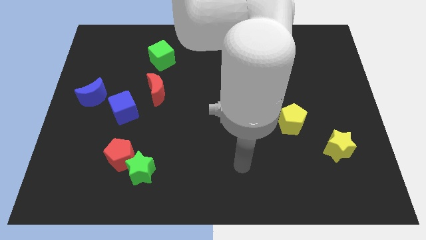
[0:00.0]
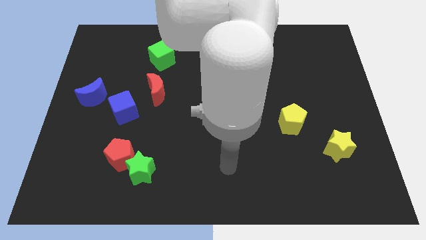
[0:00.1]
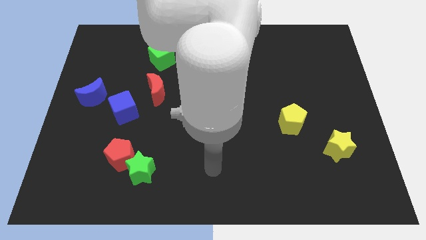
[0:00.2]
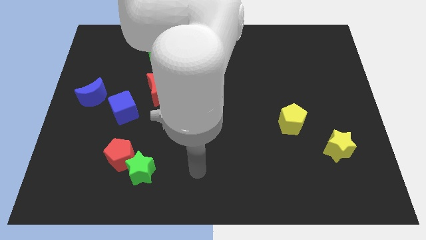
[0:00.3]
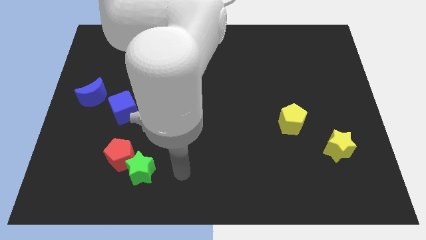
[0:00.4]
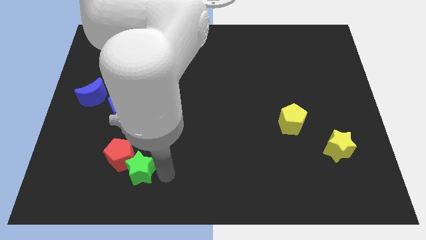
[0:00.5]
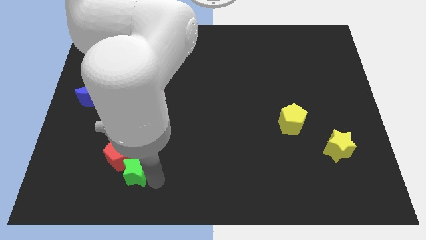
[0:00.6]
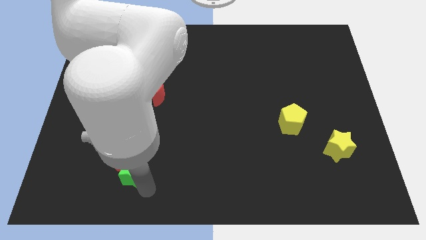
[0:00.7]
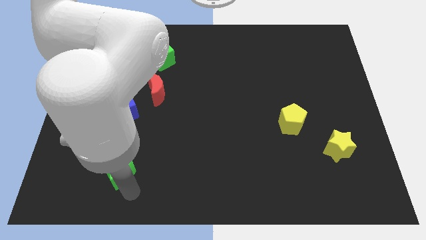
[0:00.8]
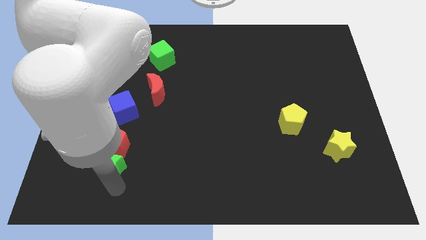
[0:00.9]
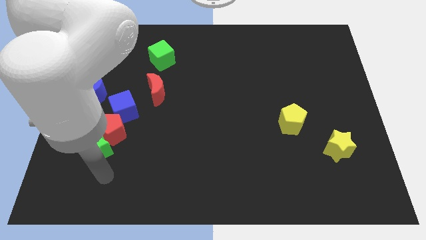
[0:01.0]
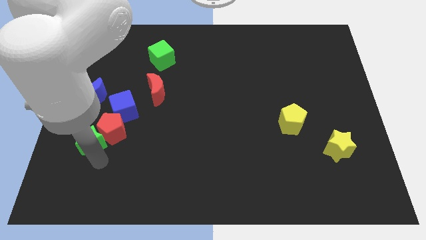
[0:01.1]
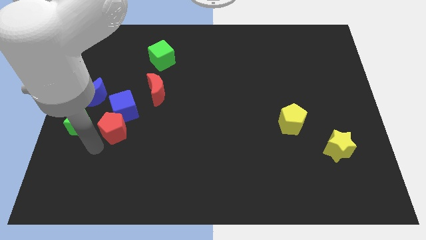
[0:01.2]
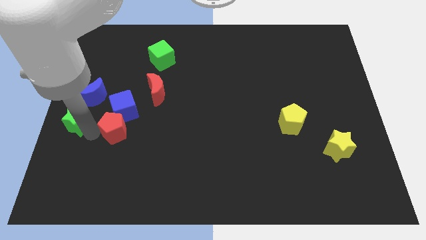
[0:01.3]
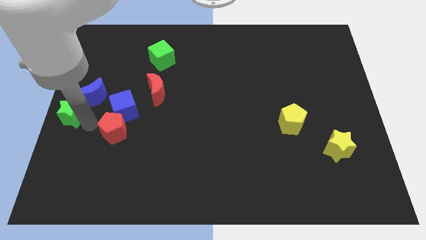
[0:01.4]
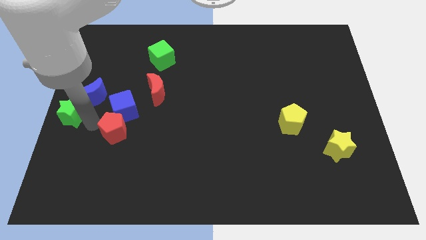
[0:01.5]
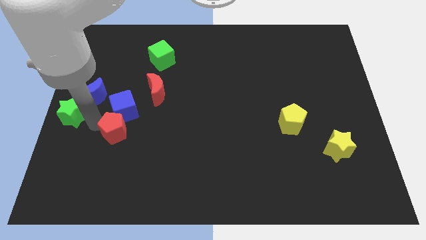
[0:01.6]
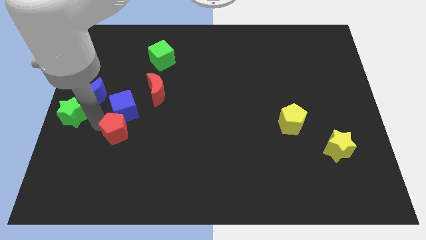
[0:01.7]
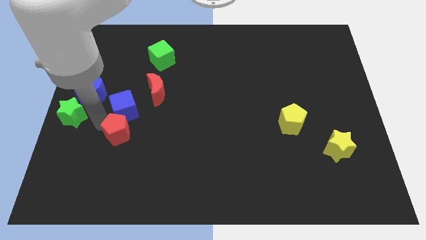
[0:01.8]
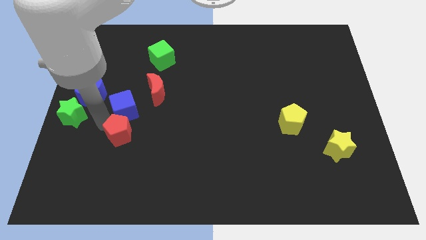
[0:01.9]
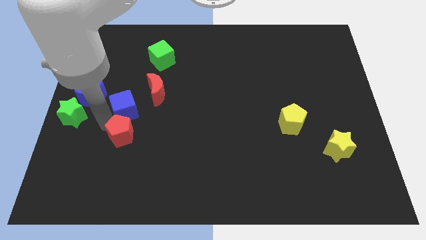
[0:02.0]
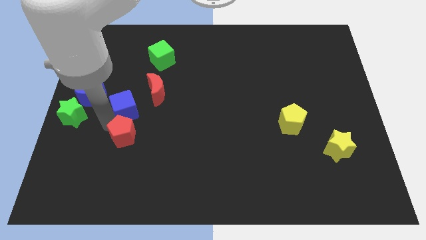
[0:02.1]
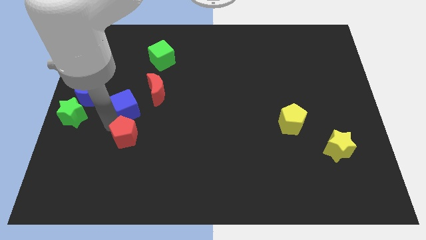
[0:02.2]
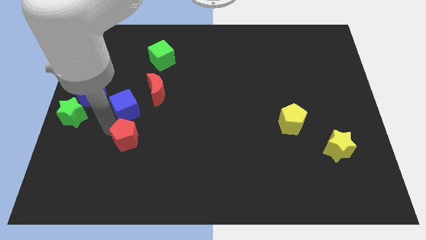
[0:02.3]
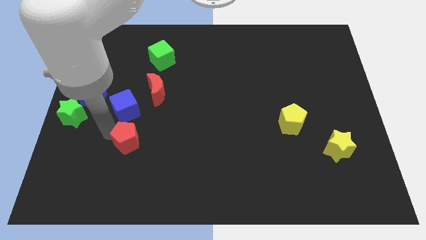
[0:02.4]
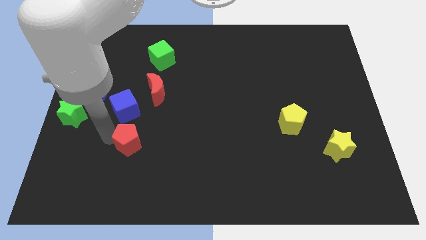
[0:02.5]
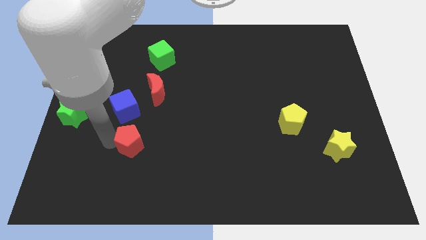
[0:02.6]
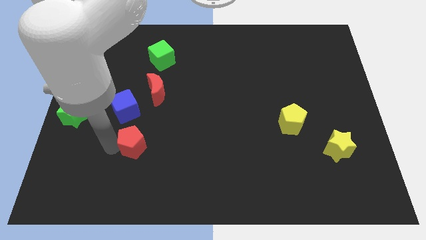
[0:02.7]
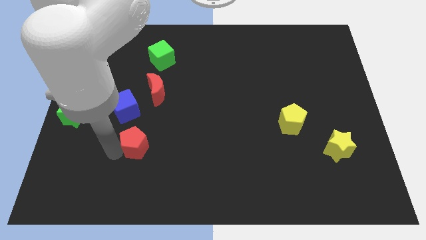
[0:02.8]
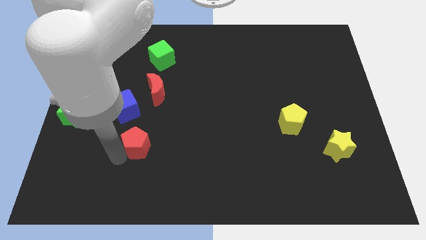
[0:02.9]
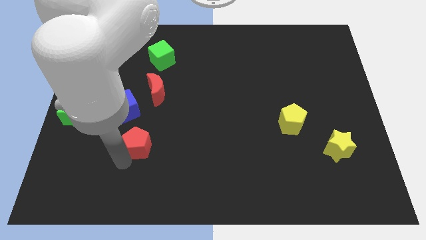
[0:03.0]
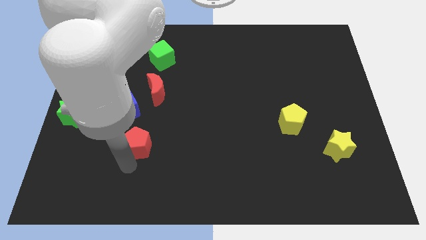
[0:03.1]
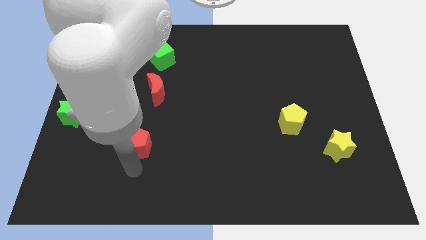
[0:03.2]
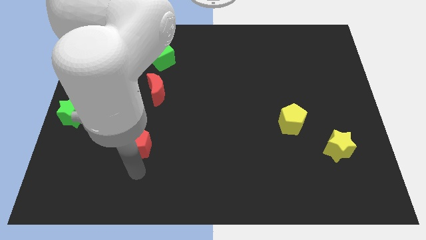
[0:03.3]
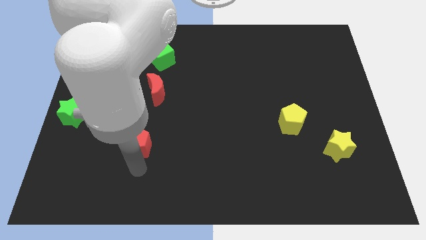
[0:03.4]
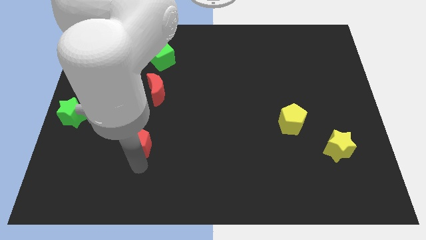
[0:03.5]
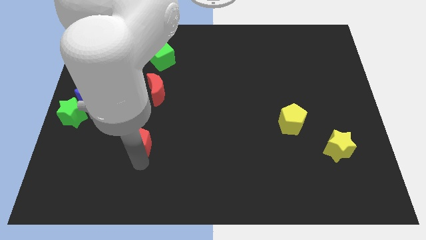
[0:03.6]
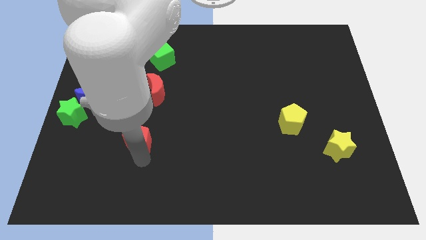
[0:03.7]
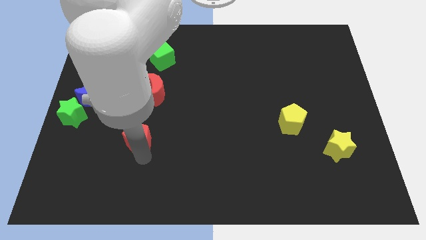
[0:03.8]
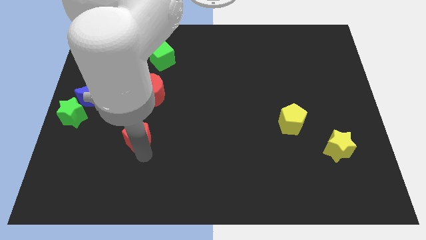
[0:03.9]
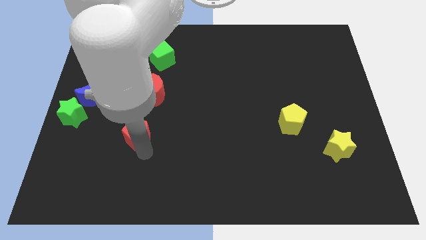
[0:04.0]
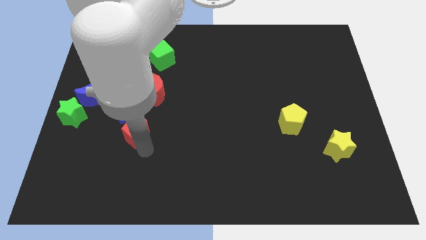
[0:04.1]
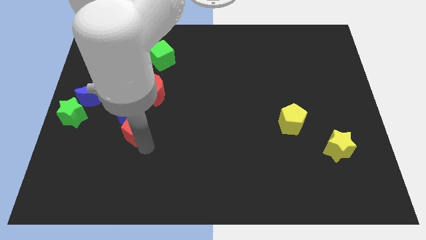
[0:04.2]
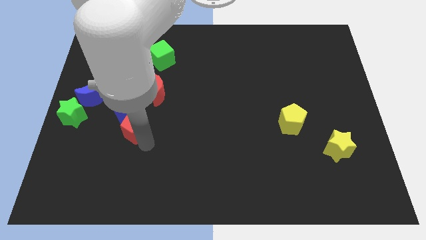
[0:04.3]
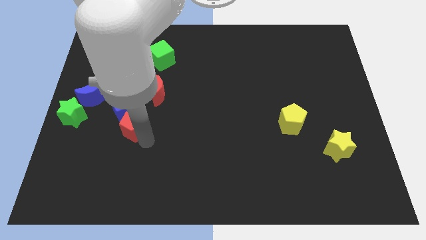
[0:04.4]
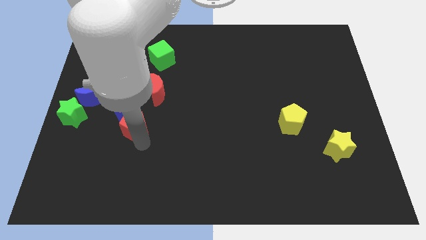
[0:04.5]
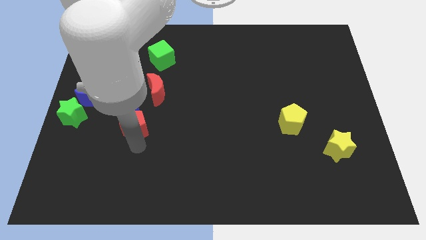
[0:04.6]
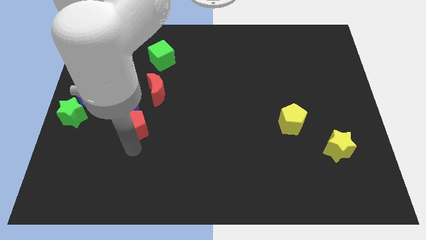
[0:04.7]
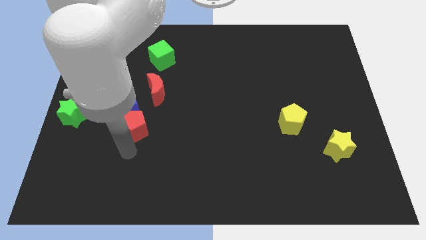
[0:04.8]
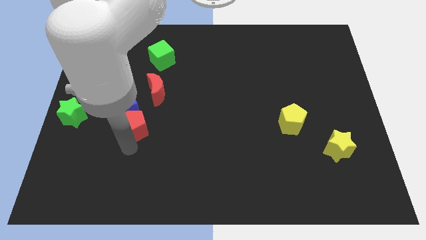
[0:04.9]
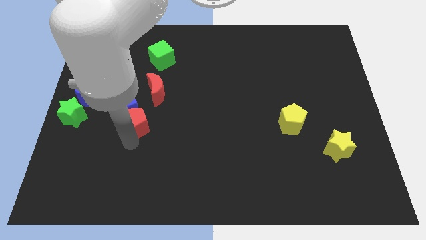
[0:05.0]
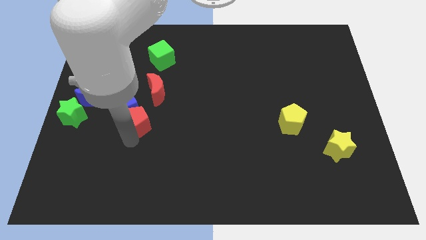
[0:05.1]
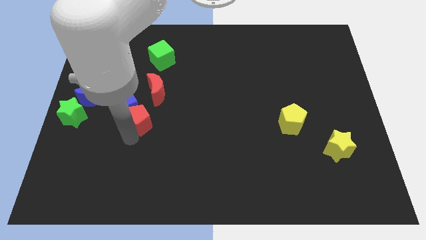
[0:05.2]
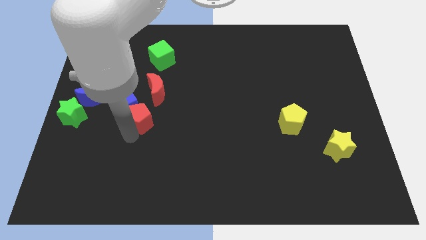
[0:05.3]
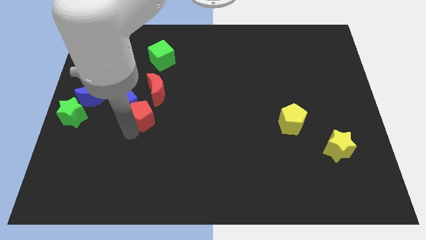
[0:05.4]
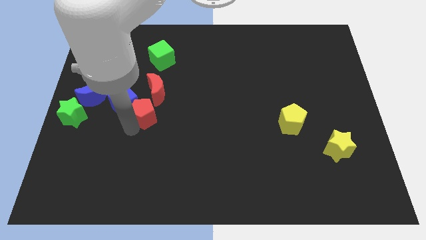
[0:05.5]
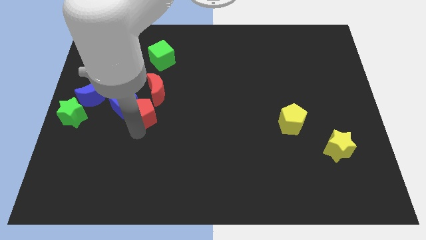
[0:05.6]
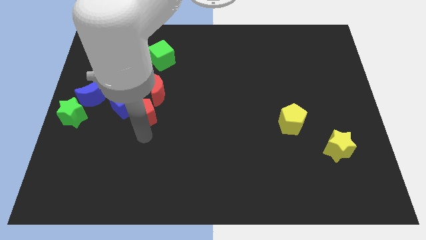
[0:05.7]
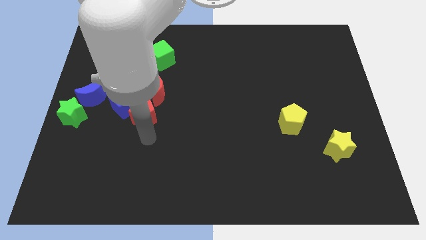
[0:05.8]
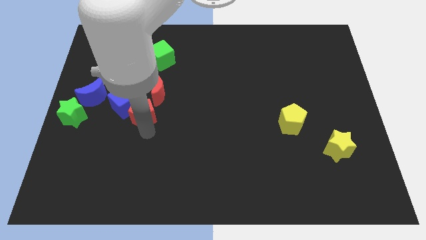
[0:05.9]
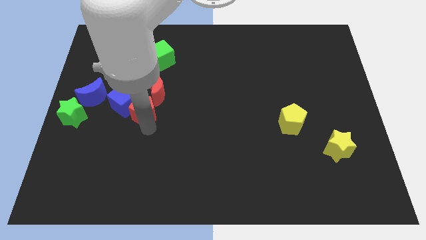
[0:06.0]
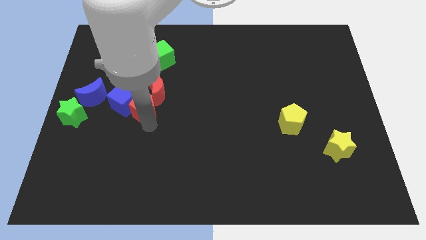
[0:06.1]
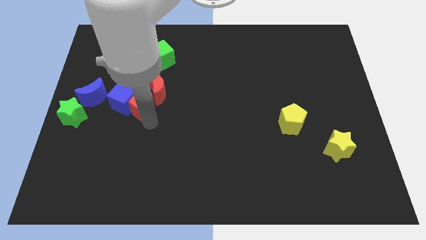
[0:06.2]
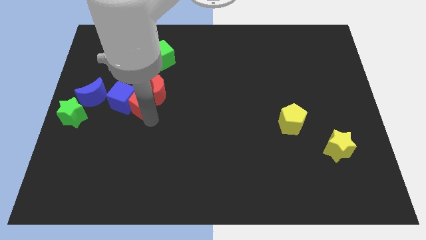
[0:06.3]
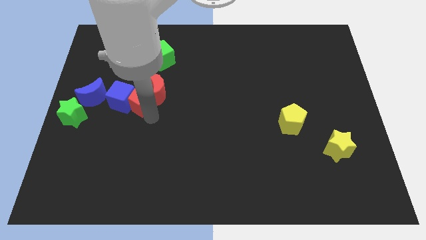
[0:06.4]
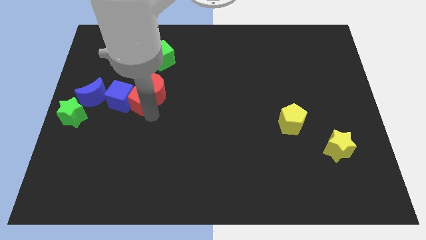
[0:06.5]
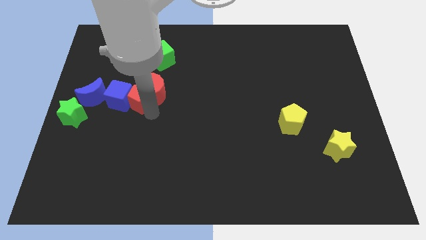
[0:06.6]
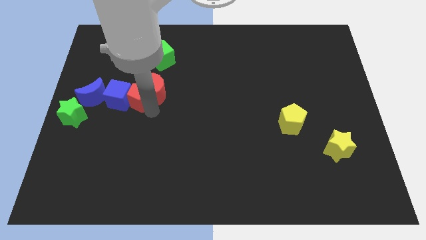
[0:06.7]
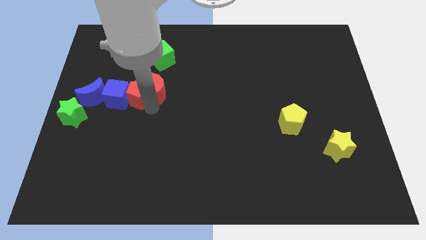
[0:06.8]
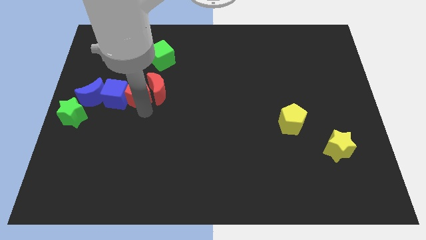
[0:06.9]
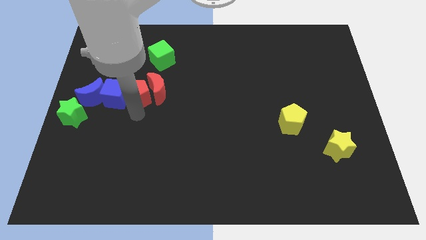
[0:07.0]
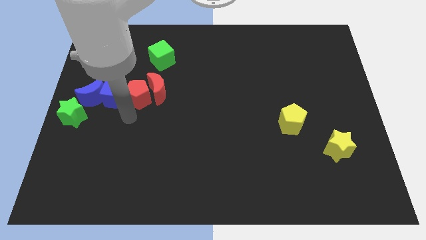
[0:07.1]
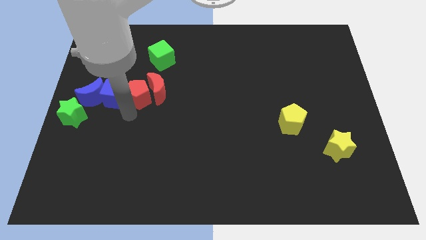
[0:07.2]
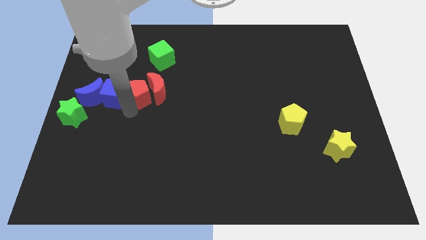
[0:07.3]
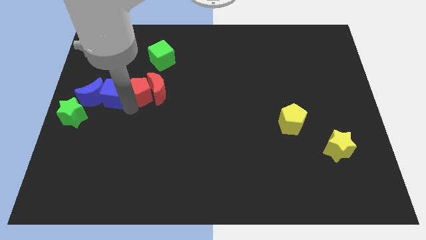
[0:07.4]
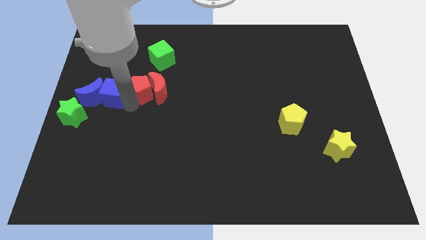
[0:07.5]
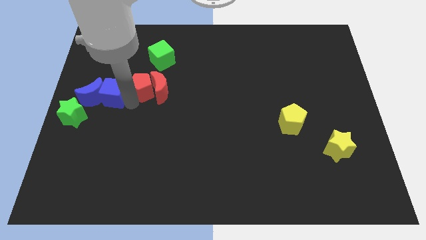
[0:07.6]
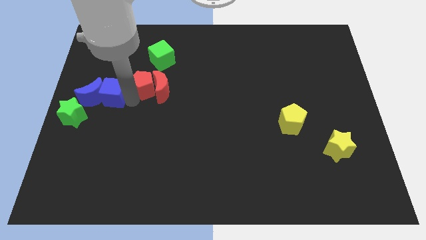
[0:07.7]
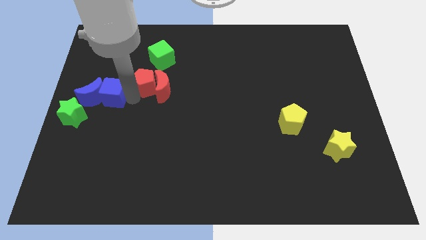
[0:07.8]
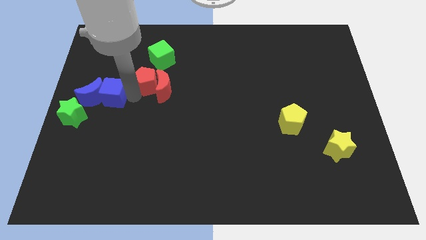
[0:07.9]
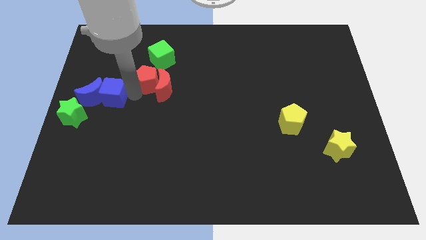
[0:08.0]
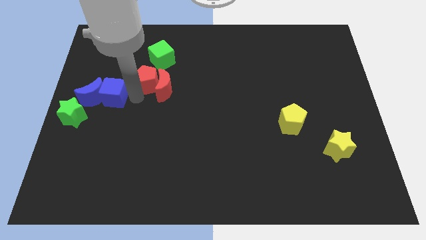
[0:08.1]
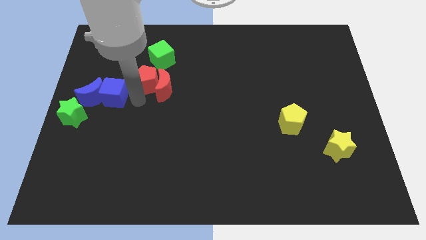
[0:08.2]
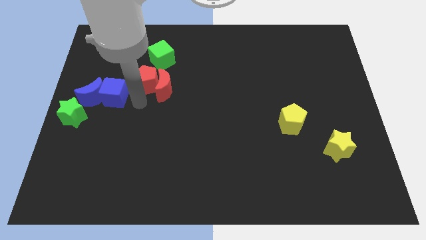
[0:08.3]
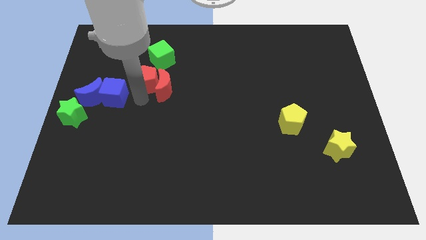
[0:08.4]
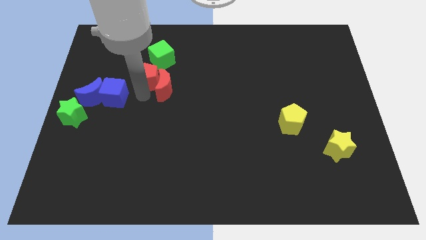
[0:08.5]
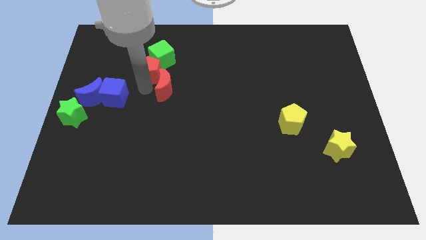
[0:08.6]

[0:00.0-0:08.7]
slide the red pentagon close to the green cube
